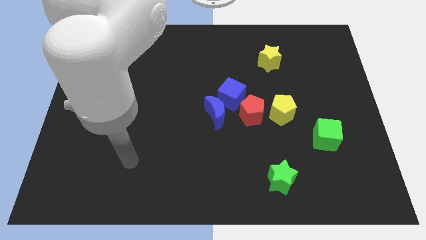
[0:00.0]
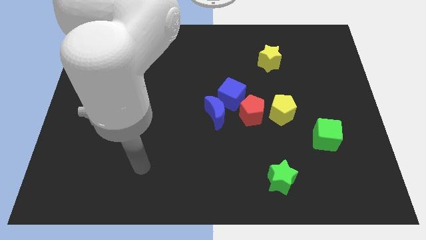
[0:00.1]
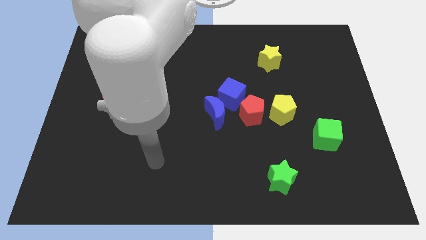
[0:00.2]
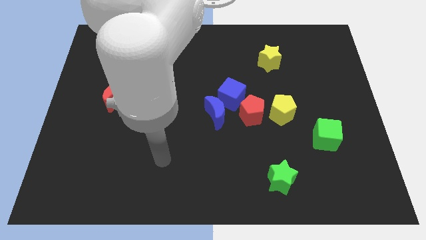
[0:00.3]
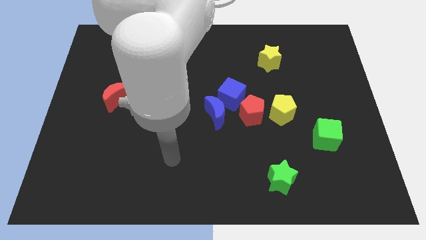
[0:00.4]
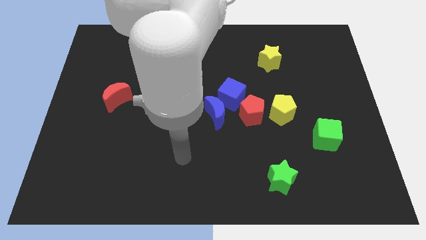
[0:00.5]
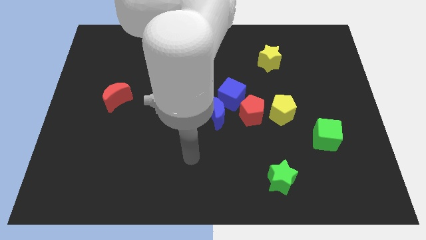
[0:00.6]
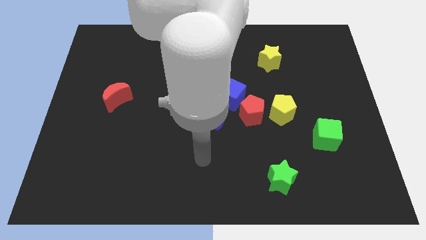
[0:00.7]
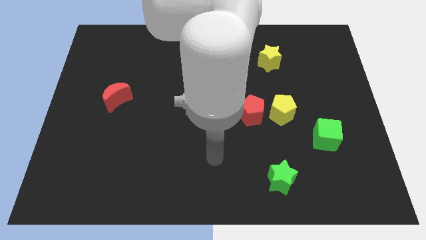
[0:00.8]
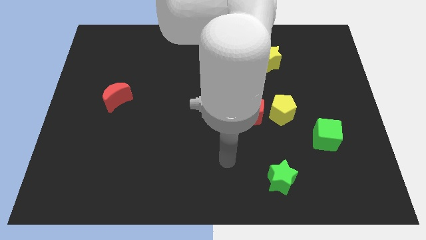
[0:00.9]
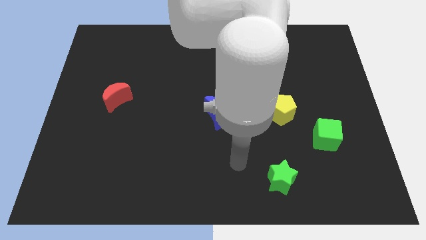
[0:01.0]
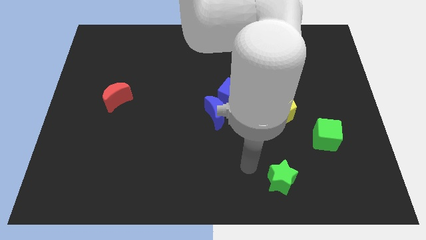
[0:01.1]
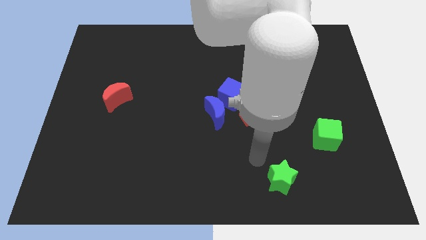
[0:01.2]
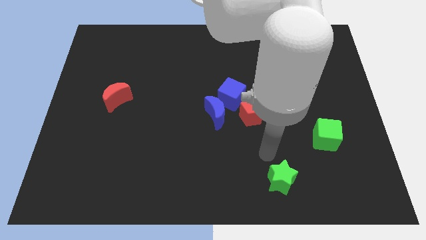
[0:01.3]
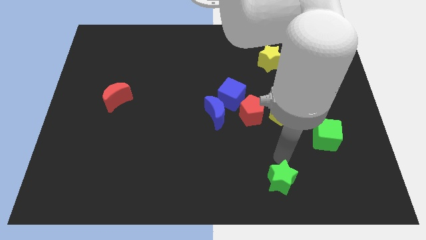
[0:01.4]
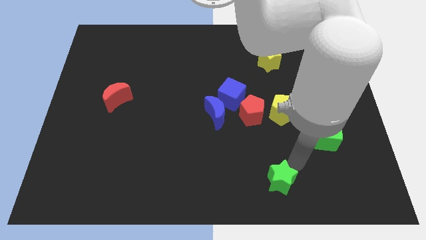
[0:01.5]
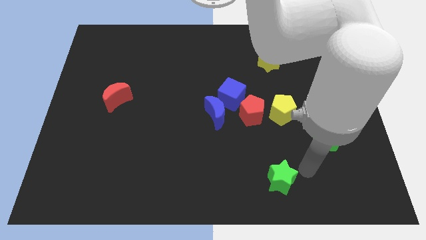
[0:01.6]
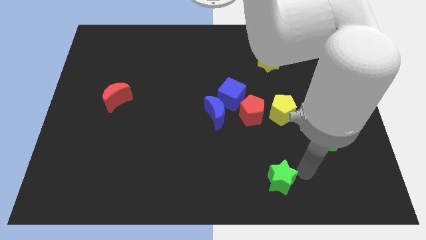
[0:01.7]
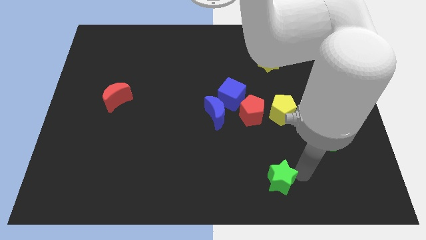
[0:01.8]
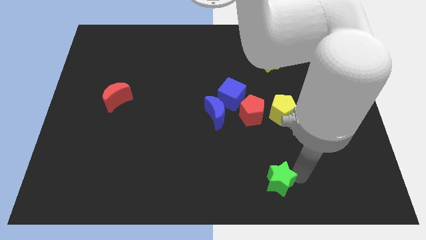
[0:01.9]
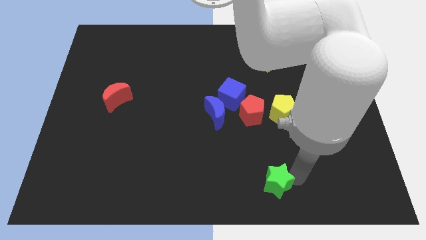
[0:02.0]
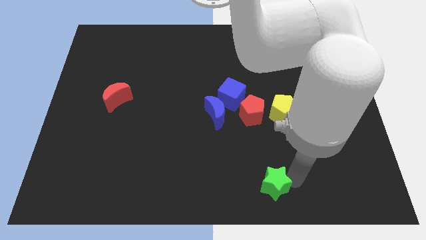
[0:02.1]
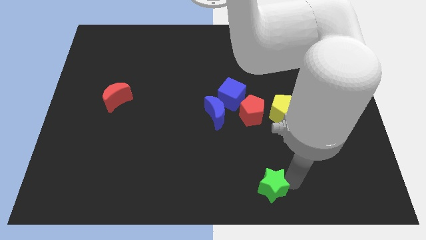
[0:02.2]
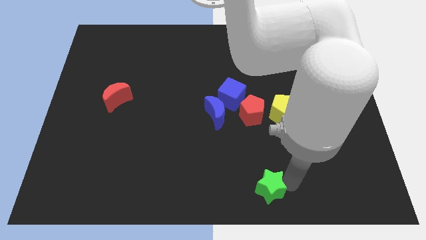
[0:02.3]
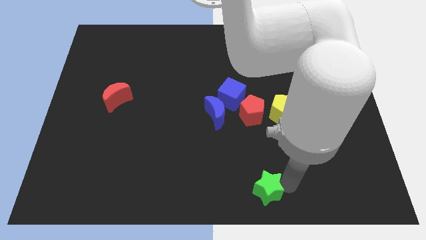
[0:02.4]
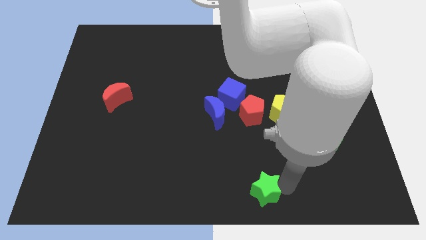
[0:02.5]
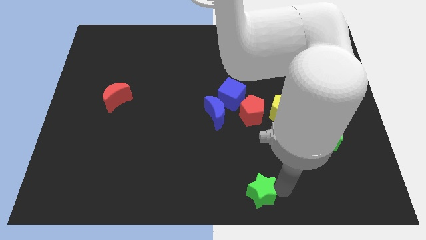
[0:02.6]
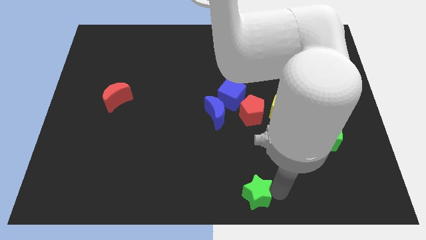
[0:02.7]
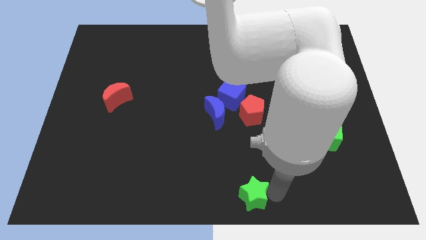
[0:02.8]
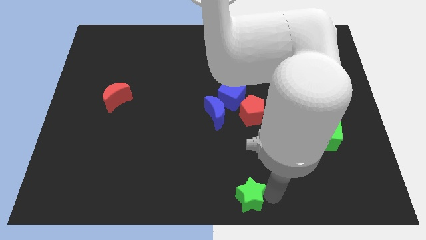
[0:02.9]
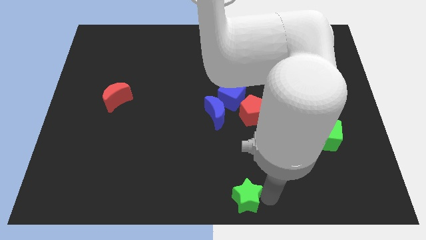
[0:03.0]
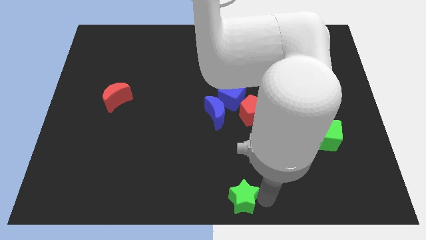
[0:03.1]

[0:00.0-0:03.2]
slide the green star slightly left

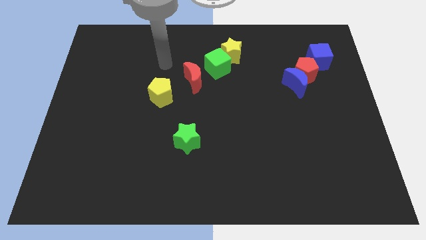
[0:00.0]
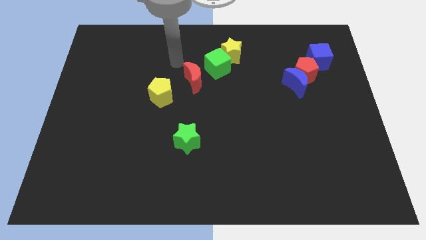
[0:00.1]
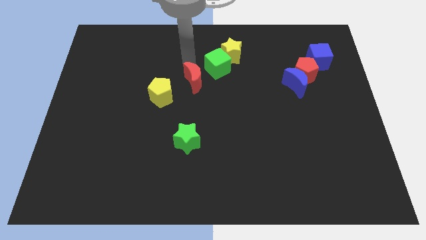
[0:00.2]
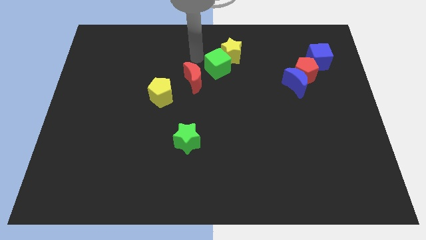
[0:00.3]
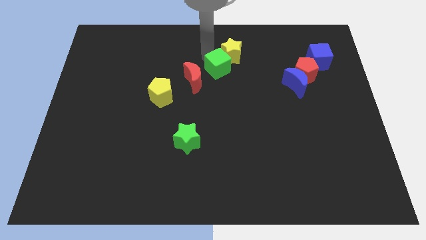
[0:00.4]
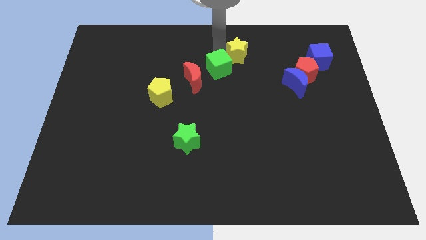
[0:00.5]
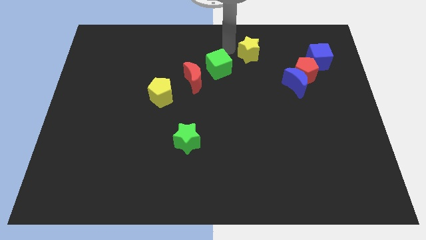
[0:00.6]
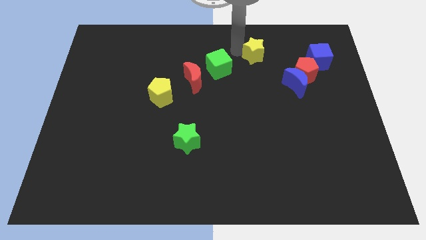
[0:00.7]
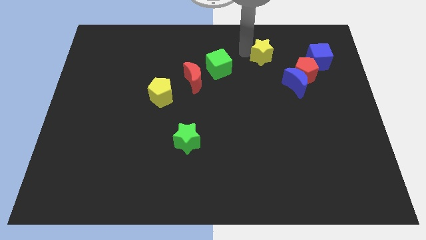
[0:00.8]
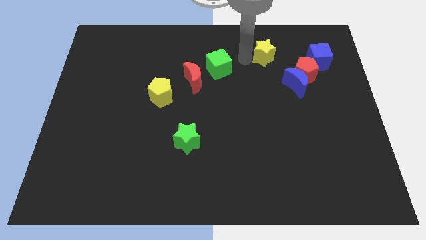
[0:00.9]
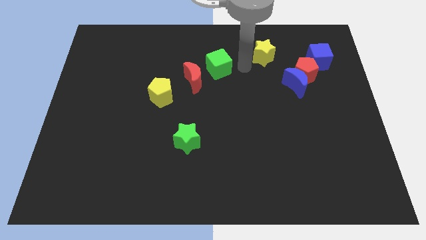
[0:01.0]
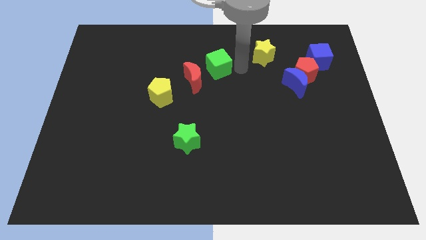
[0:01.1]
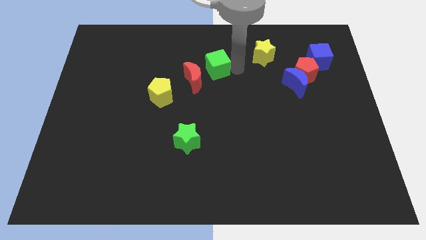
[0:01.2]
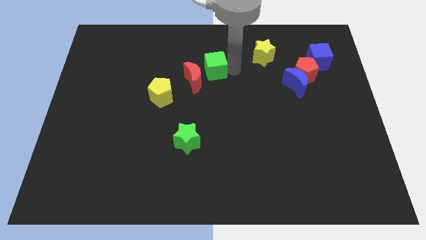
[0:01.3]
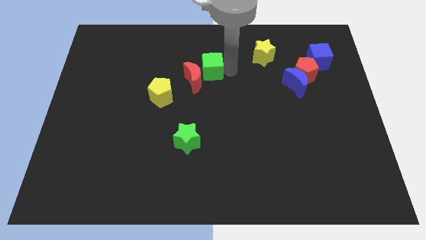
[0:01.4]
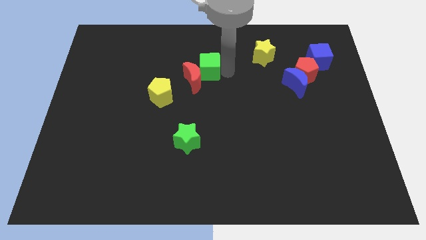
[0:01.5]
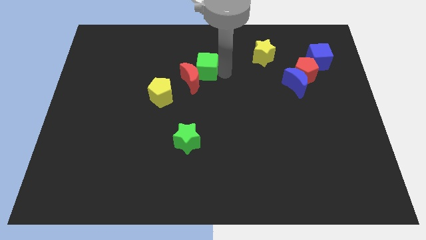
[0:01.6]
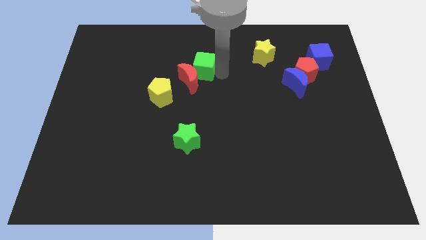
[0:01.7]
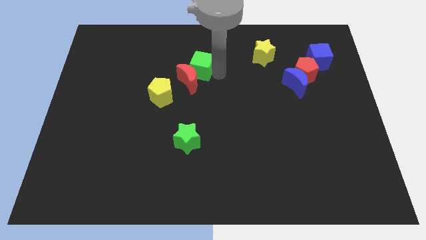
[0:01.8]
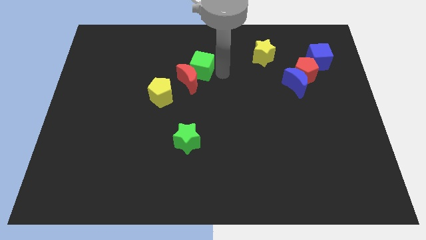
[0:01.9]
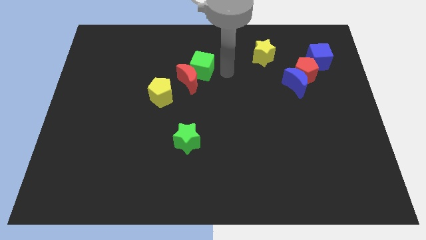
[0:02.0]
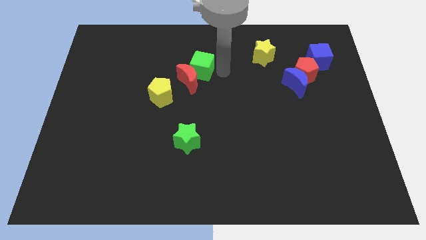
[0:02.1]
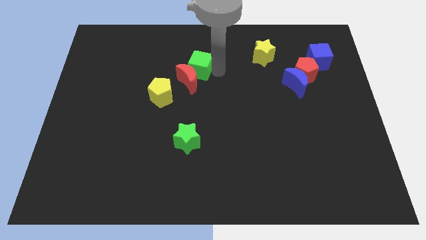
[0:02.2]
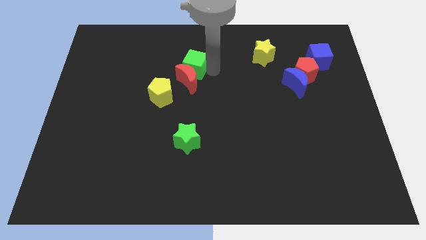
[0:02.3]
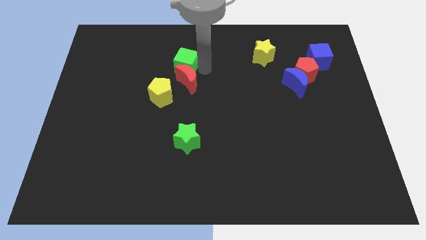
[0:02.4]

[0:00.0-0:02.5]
push the green cube slightly to the left

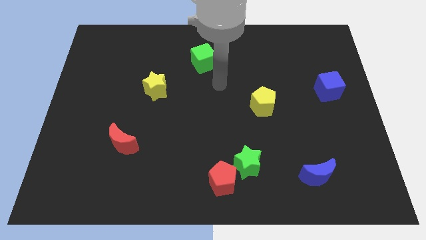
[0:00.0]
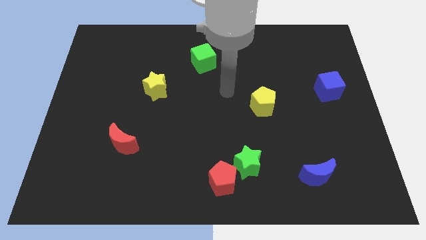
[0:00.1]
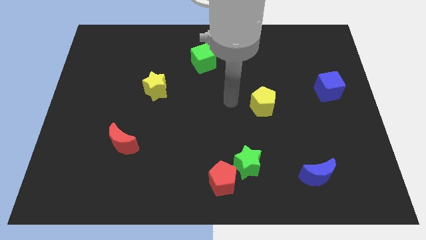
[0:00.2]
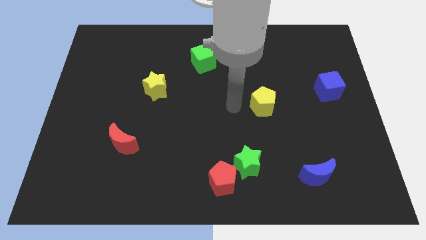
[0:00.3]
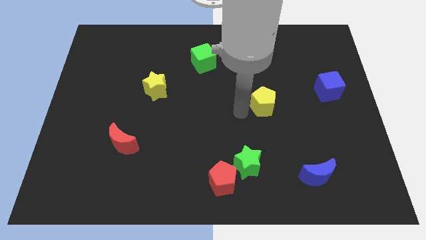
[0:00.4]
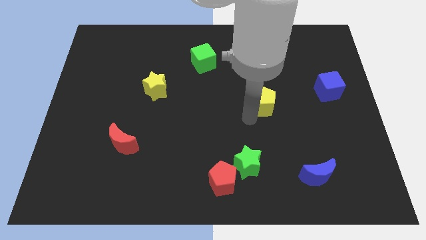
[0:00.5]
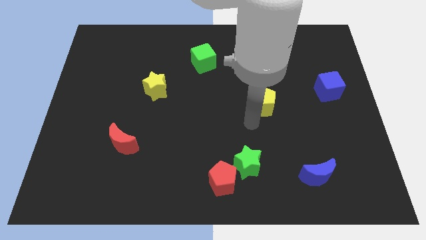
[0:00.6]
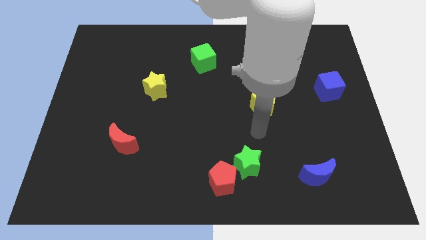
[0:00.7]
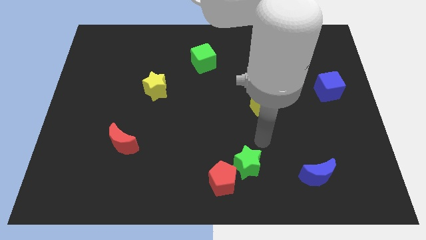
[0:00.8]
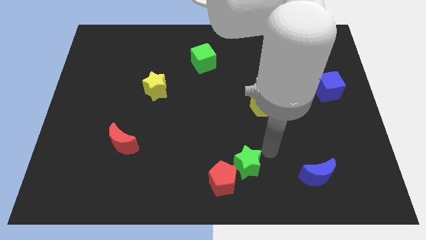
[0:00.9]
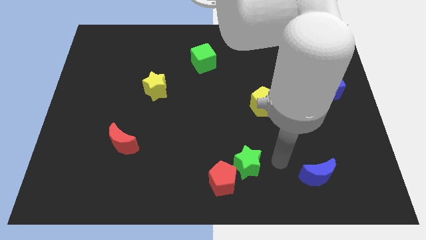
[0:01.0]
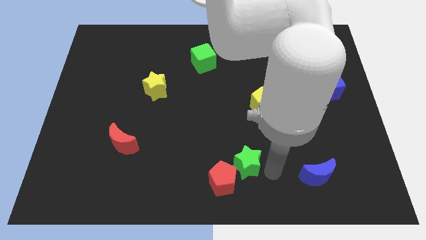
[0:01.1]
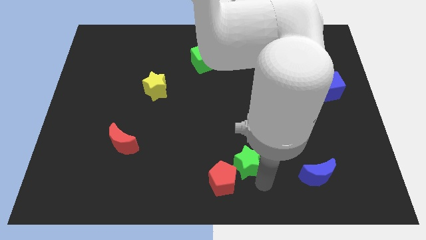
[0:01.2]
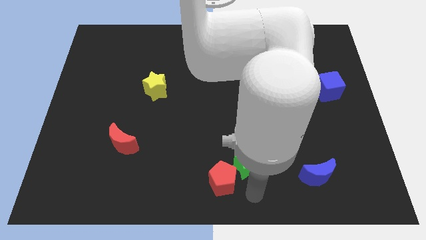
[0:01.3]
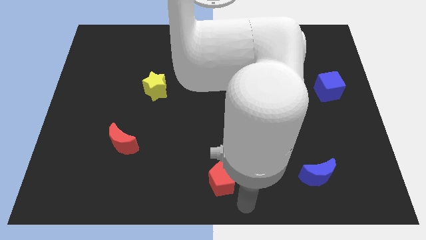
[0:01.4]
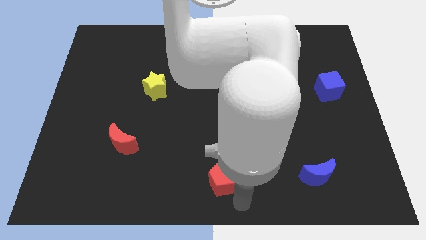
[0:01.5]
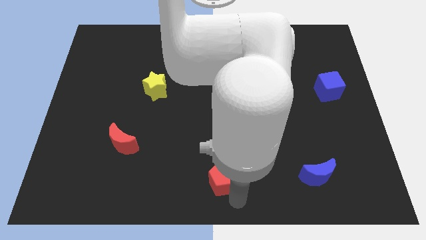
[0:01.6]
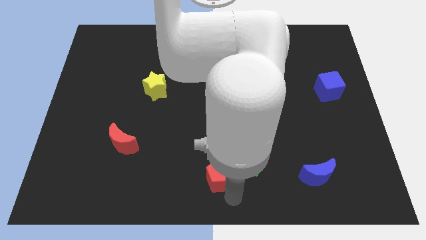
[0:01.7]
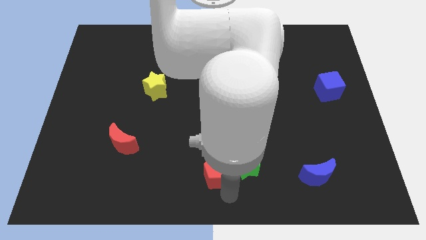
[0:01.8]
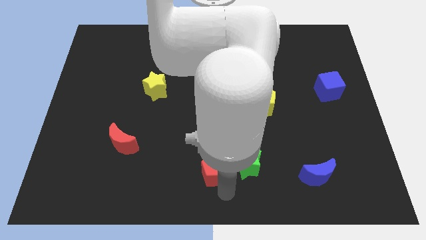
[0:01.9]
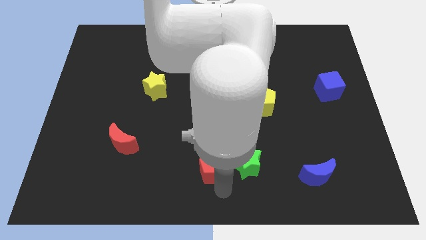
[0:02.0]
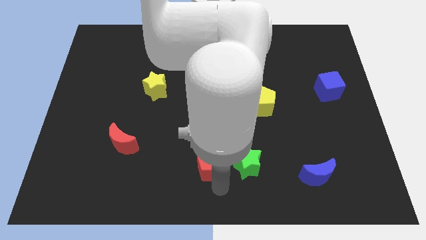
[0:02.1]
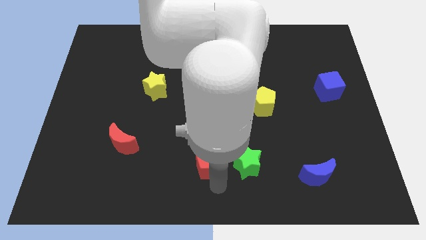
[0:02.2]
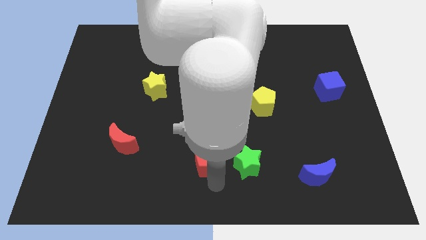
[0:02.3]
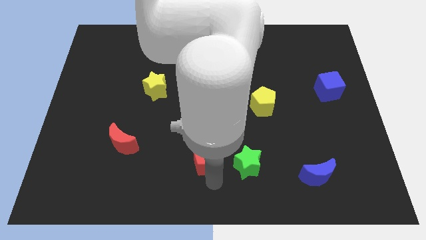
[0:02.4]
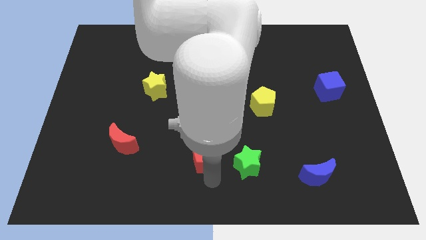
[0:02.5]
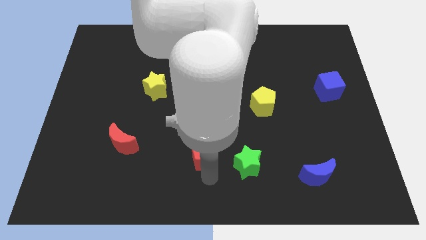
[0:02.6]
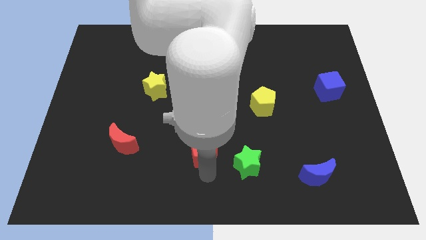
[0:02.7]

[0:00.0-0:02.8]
slightly push the red pentagon upwards and left diagonally
